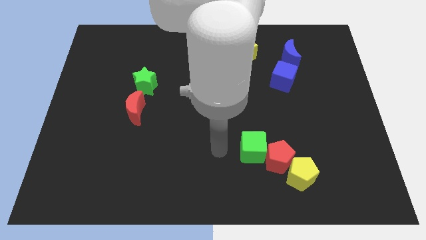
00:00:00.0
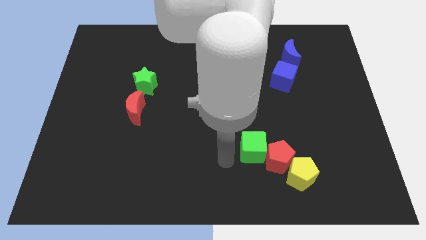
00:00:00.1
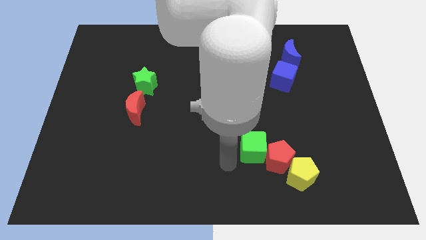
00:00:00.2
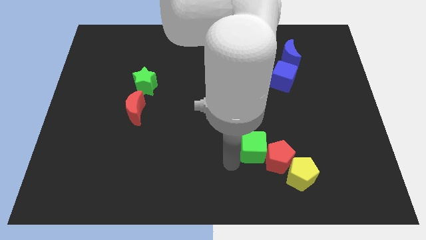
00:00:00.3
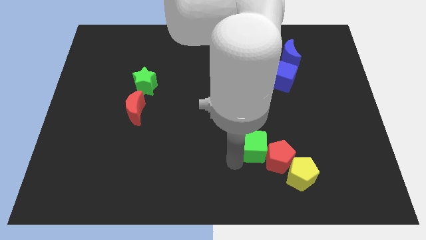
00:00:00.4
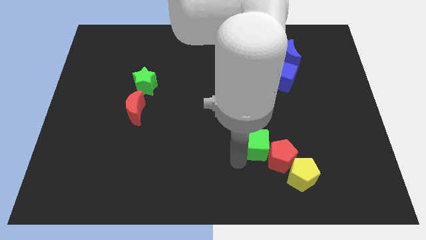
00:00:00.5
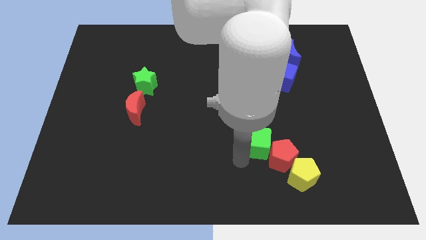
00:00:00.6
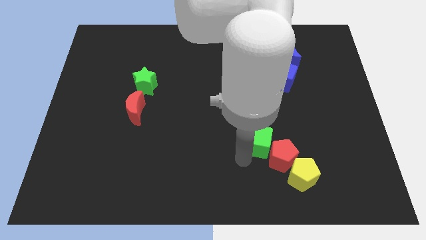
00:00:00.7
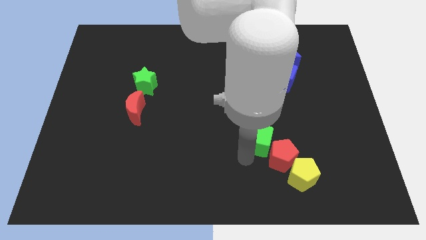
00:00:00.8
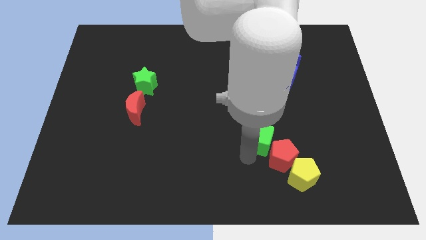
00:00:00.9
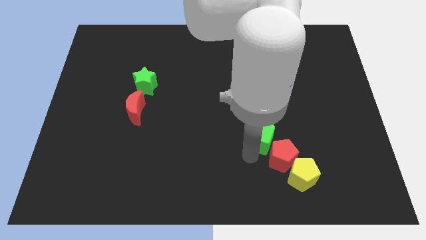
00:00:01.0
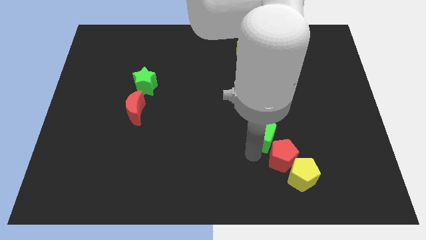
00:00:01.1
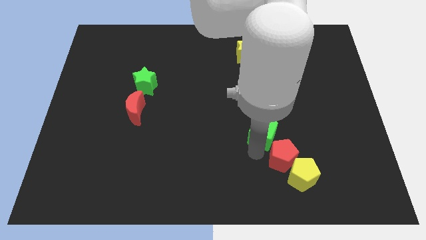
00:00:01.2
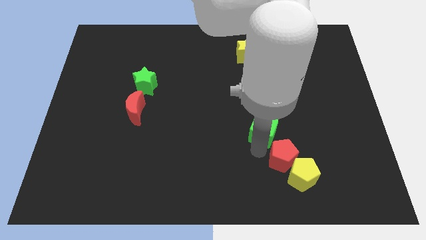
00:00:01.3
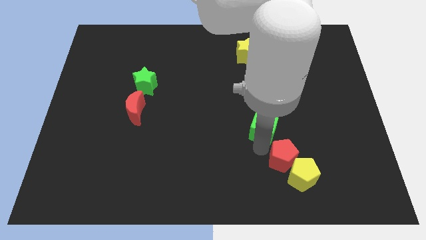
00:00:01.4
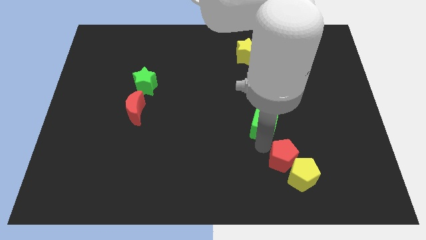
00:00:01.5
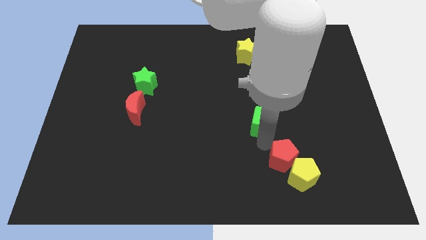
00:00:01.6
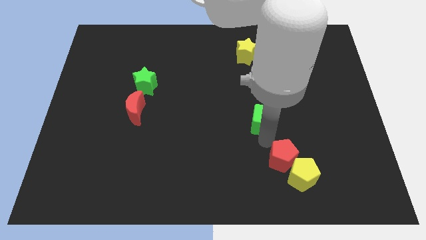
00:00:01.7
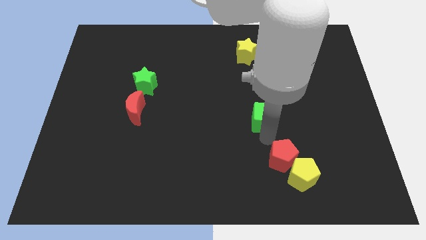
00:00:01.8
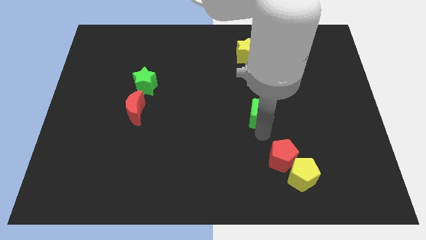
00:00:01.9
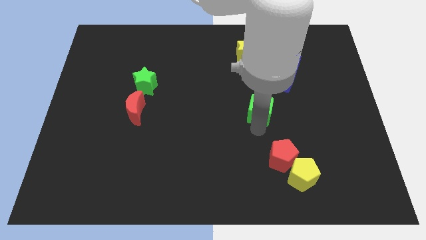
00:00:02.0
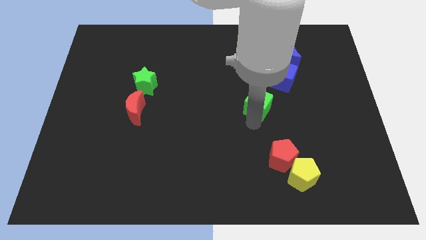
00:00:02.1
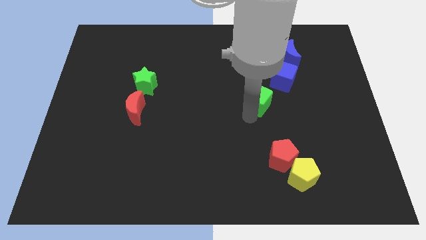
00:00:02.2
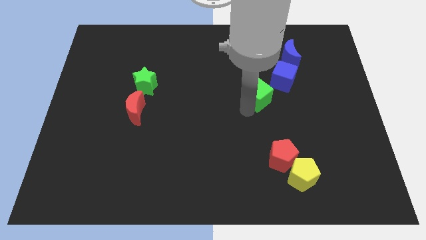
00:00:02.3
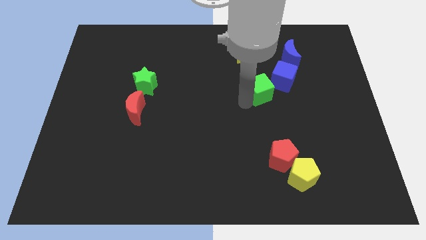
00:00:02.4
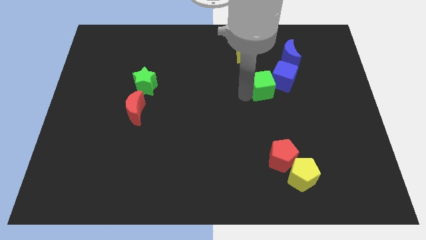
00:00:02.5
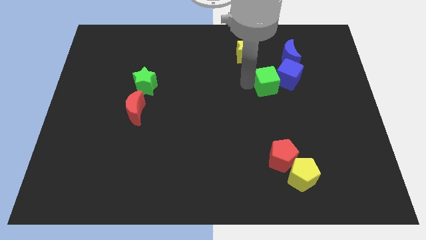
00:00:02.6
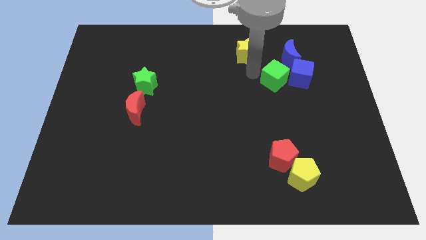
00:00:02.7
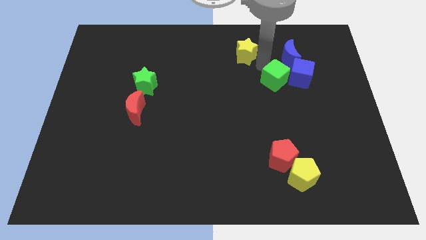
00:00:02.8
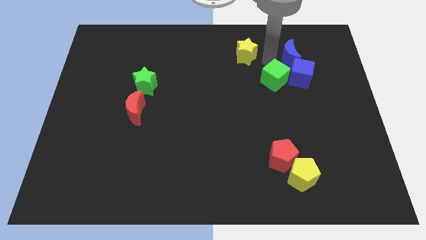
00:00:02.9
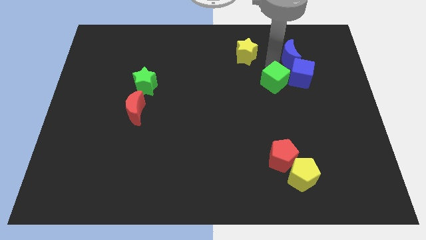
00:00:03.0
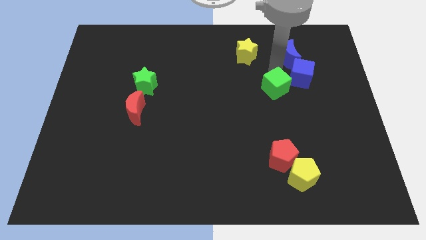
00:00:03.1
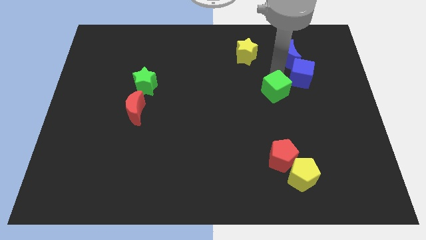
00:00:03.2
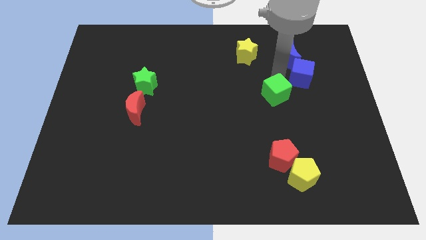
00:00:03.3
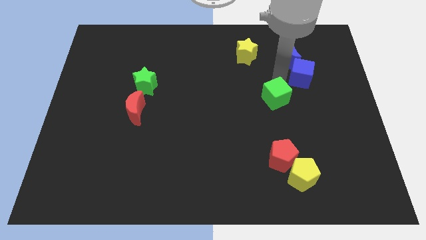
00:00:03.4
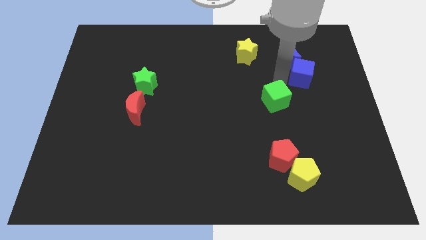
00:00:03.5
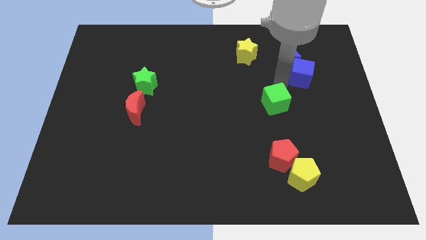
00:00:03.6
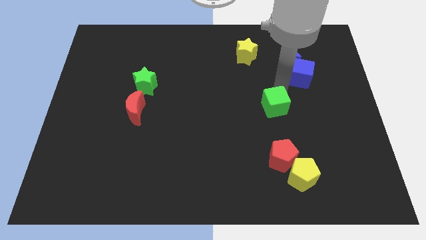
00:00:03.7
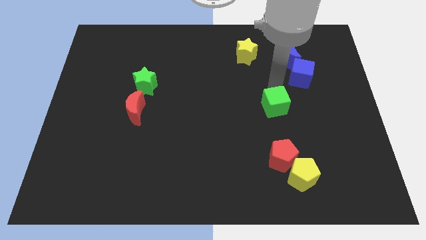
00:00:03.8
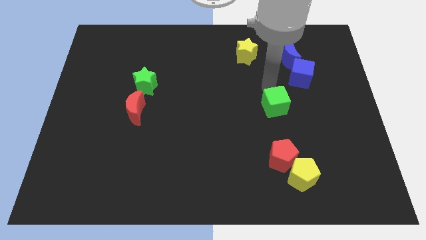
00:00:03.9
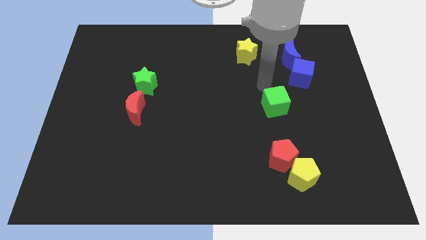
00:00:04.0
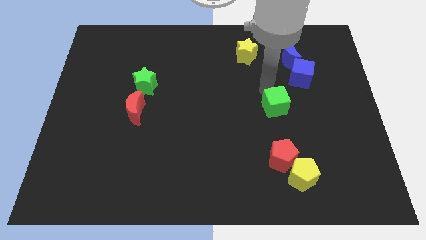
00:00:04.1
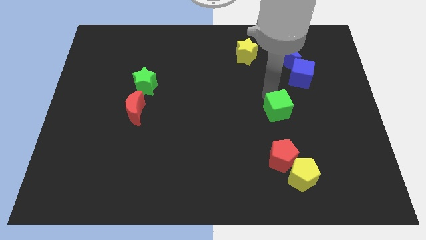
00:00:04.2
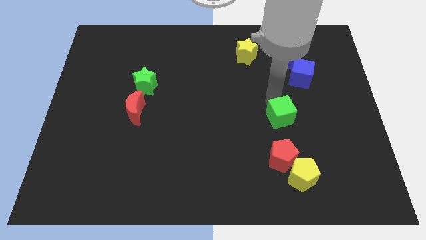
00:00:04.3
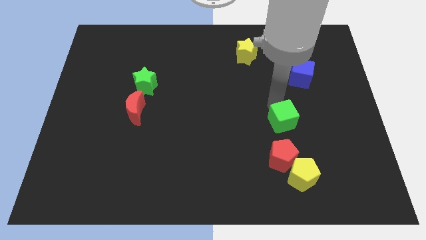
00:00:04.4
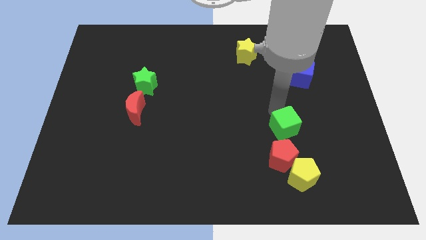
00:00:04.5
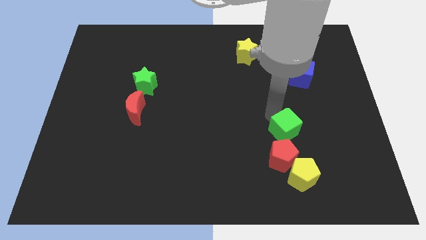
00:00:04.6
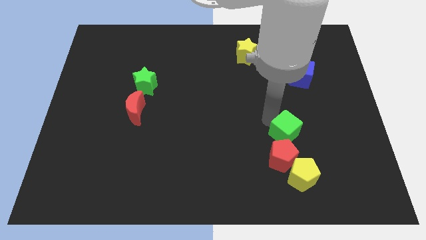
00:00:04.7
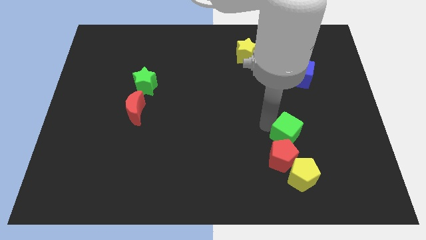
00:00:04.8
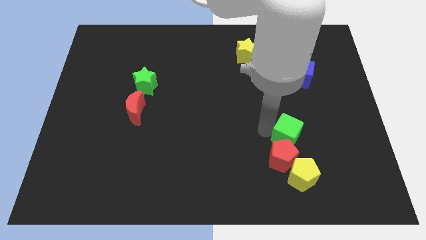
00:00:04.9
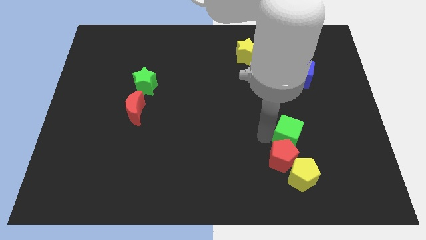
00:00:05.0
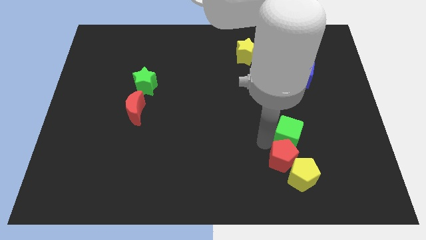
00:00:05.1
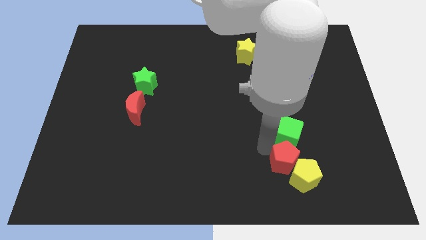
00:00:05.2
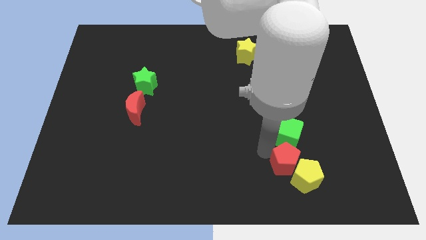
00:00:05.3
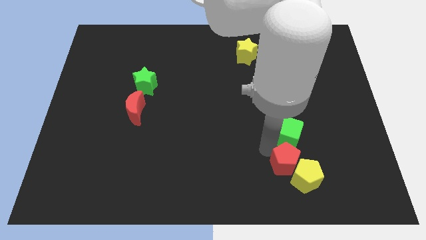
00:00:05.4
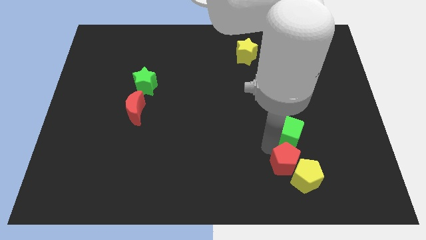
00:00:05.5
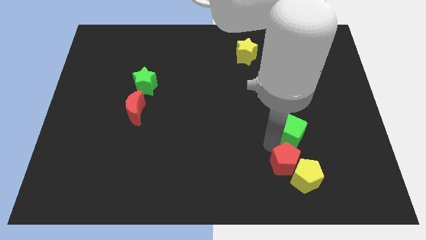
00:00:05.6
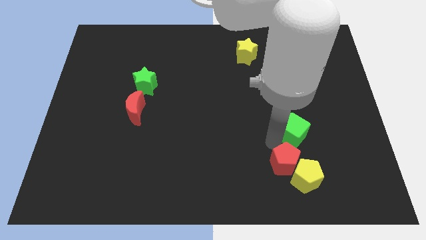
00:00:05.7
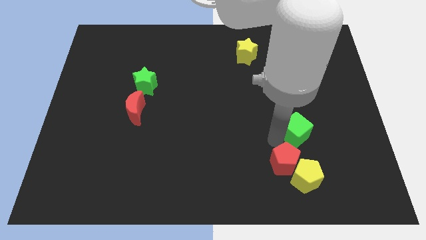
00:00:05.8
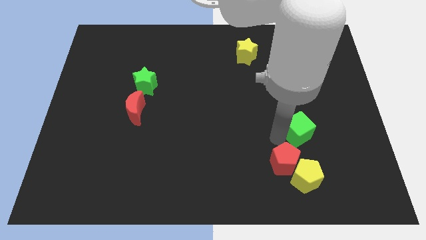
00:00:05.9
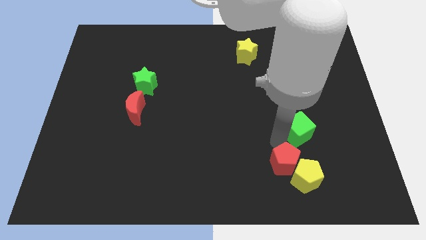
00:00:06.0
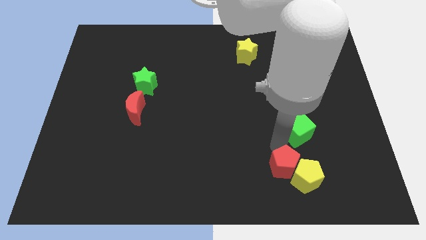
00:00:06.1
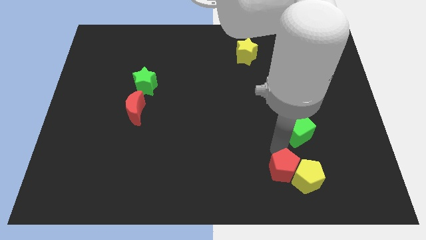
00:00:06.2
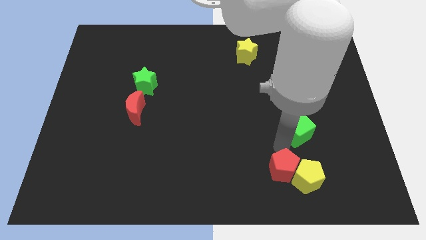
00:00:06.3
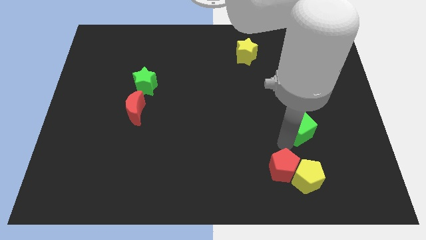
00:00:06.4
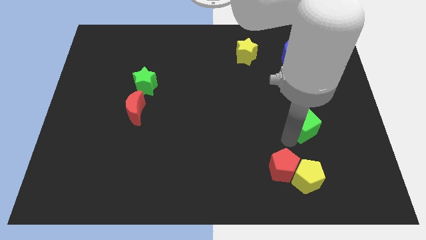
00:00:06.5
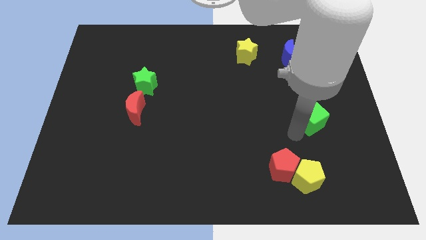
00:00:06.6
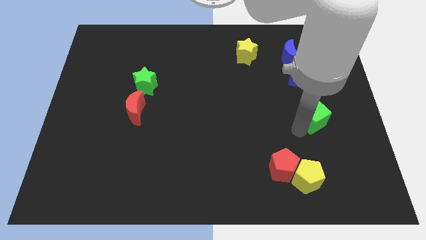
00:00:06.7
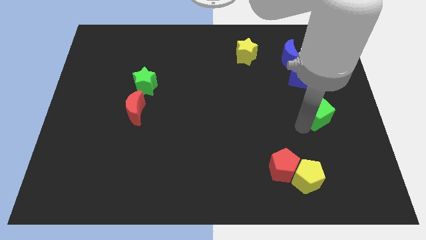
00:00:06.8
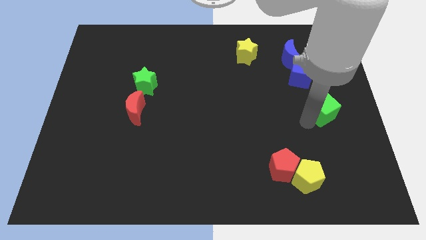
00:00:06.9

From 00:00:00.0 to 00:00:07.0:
put the green cube to the center right
